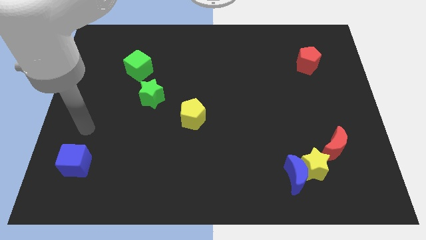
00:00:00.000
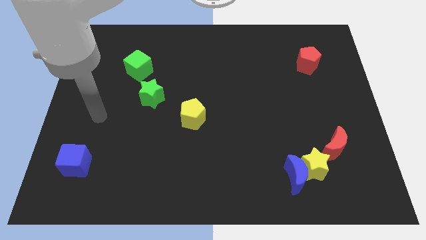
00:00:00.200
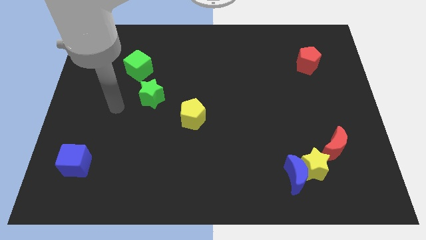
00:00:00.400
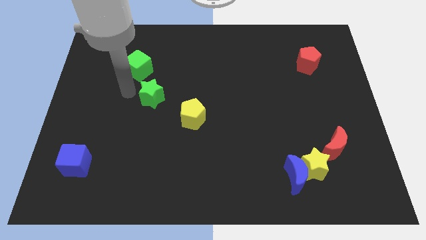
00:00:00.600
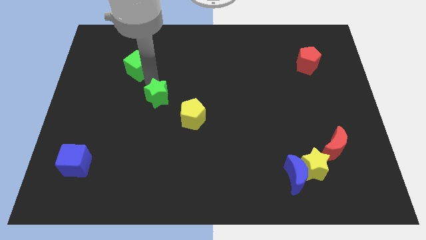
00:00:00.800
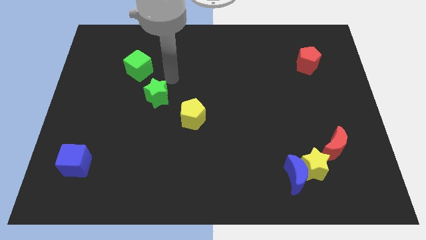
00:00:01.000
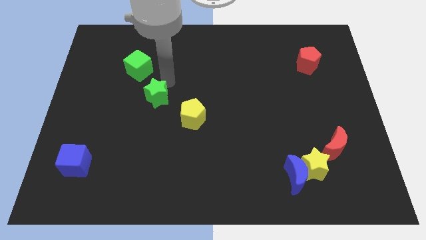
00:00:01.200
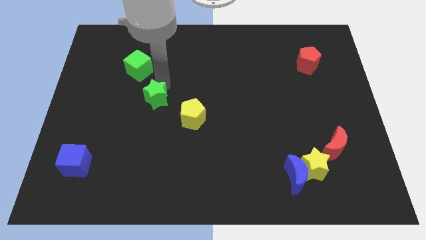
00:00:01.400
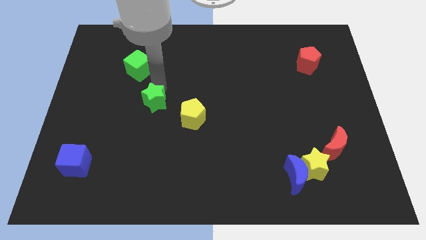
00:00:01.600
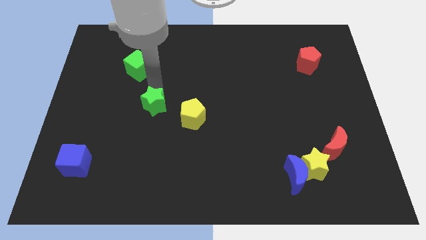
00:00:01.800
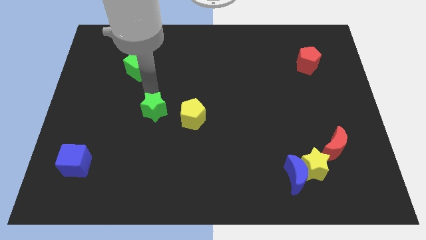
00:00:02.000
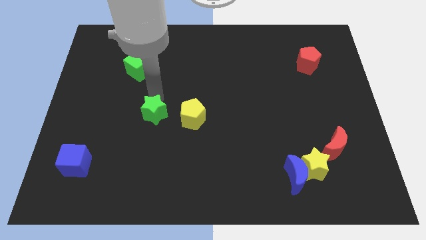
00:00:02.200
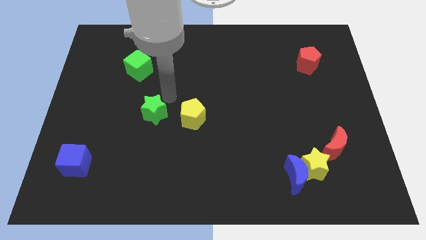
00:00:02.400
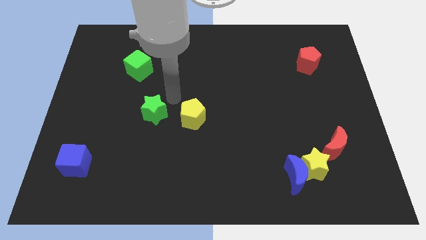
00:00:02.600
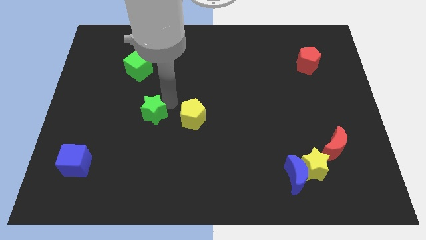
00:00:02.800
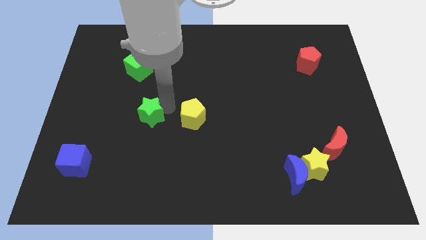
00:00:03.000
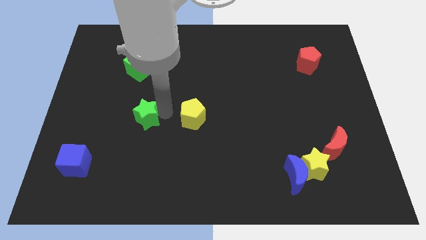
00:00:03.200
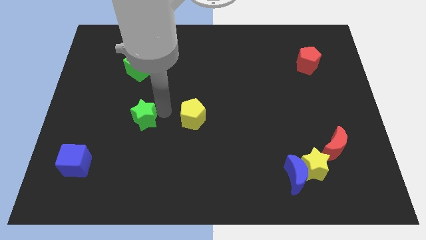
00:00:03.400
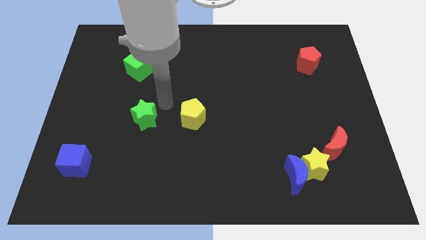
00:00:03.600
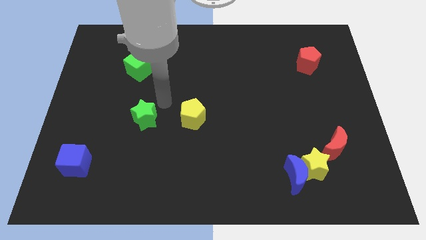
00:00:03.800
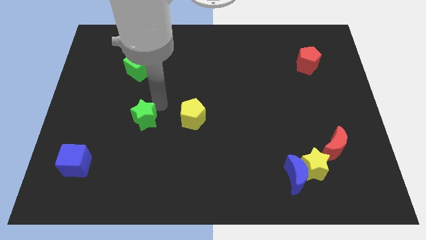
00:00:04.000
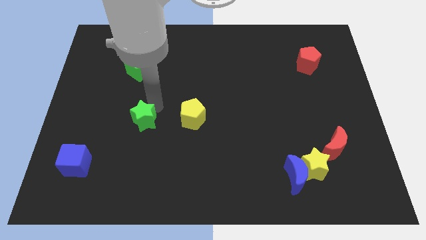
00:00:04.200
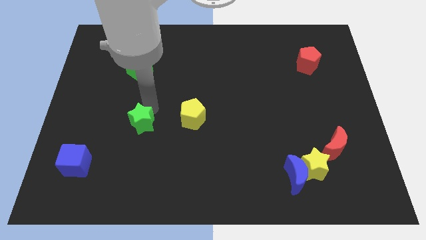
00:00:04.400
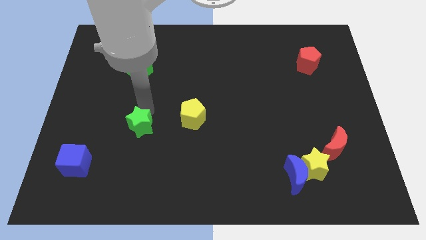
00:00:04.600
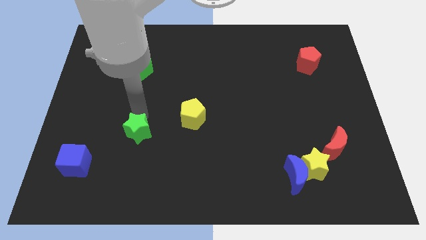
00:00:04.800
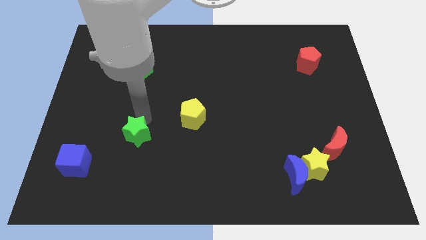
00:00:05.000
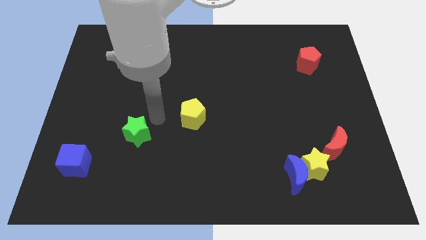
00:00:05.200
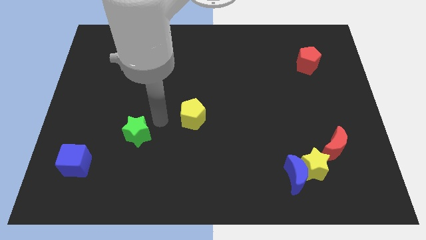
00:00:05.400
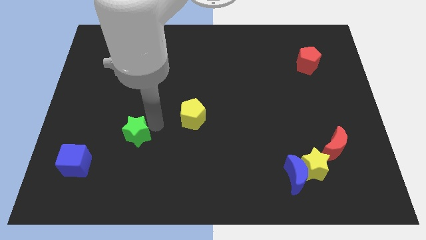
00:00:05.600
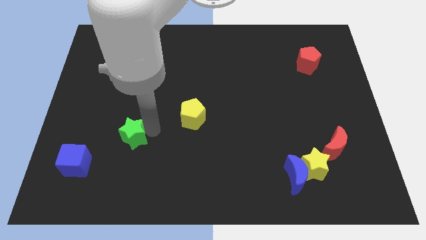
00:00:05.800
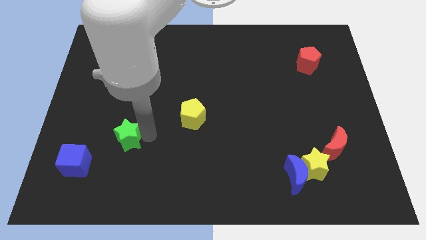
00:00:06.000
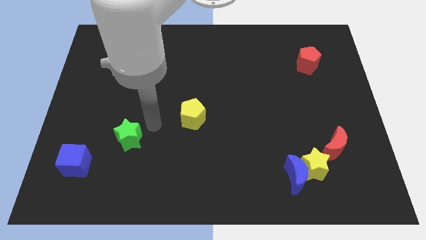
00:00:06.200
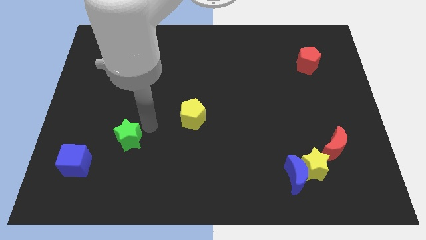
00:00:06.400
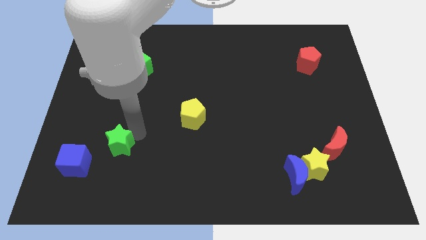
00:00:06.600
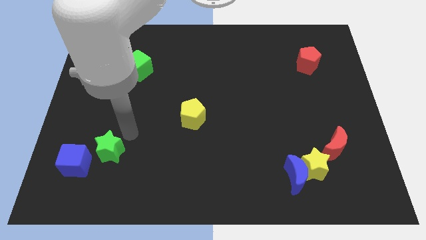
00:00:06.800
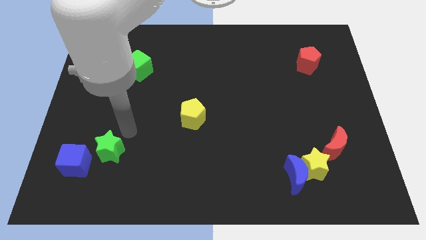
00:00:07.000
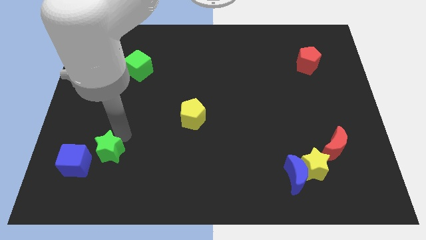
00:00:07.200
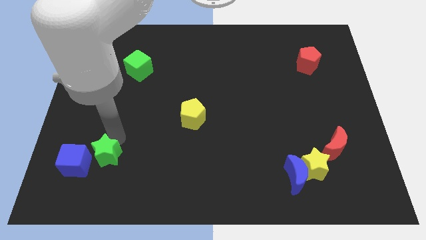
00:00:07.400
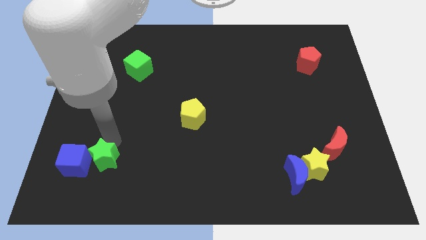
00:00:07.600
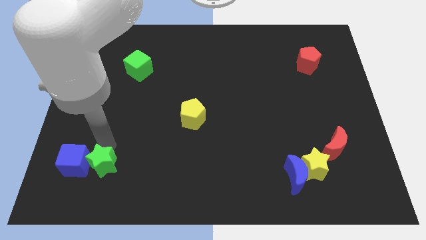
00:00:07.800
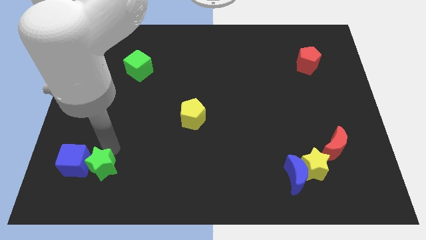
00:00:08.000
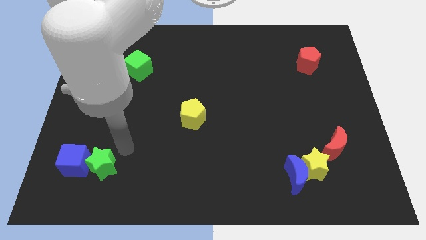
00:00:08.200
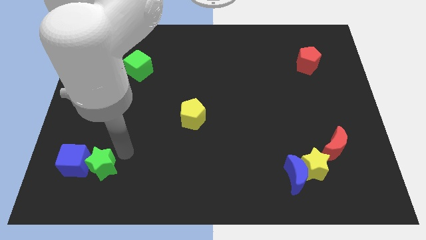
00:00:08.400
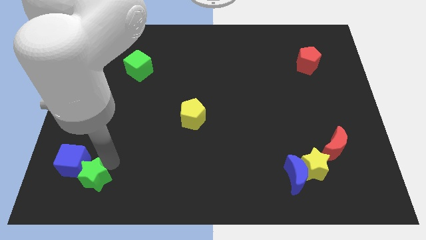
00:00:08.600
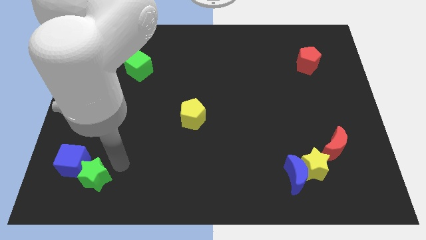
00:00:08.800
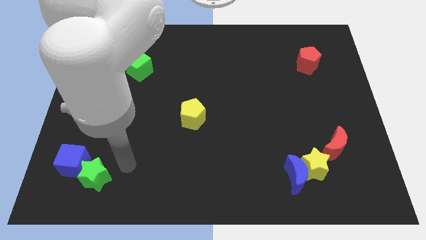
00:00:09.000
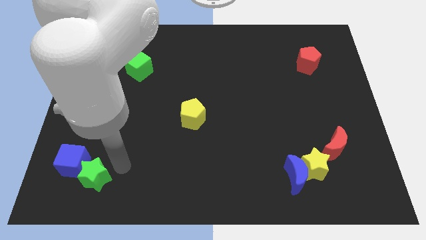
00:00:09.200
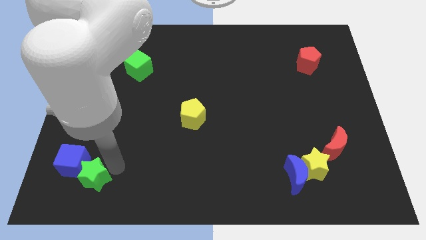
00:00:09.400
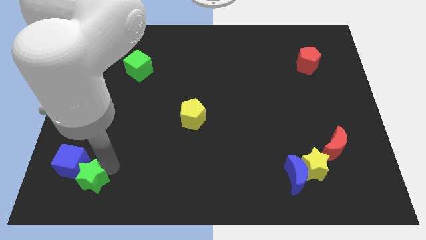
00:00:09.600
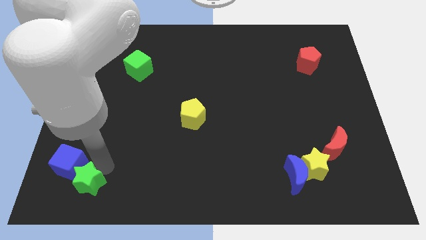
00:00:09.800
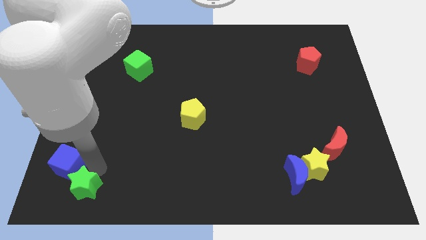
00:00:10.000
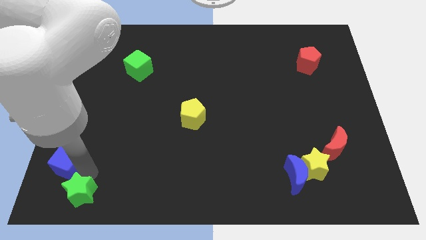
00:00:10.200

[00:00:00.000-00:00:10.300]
push the green star to the lower left corner

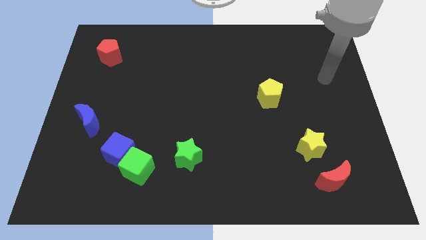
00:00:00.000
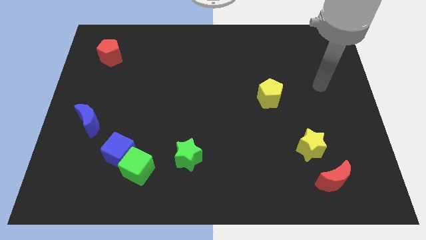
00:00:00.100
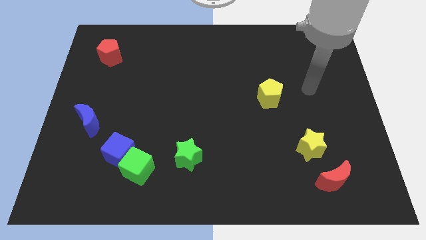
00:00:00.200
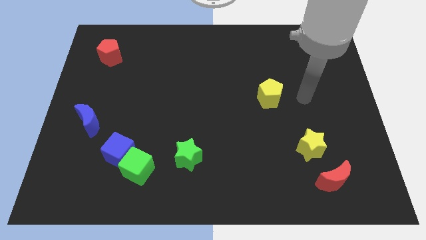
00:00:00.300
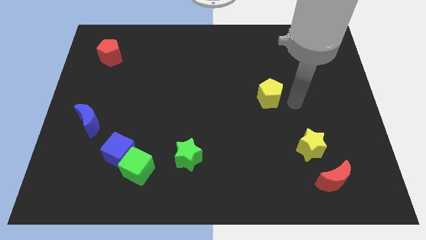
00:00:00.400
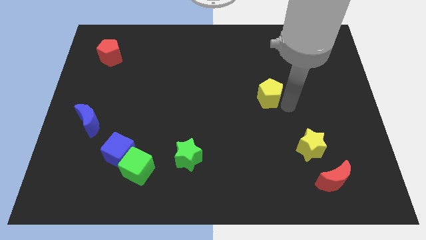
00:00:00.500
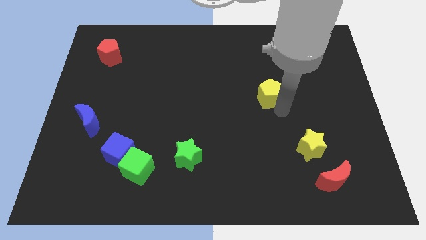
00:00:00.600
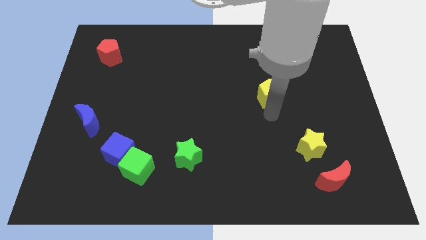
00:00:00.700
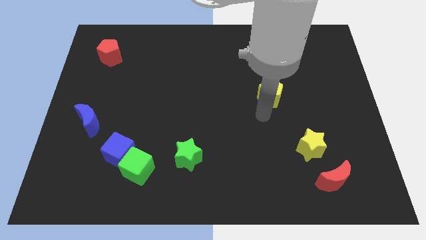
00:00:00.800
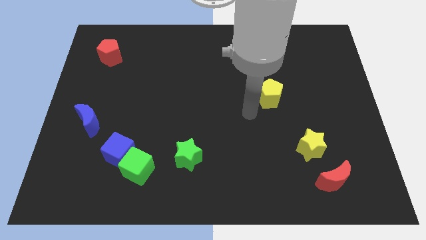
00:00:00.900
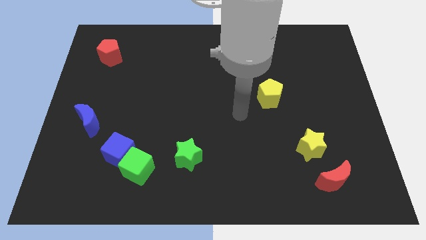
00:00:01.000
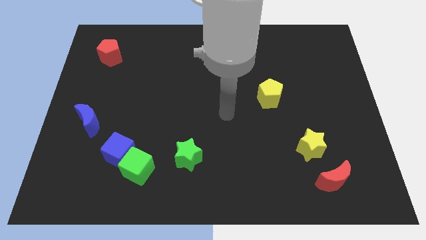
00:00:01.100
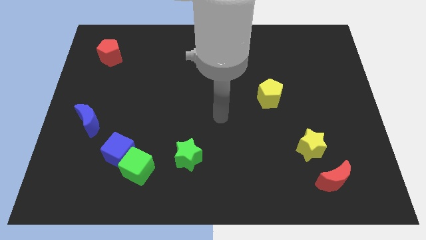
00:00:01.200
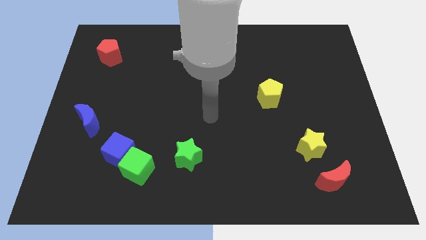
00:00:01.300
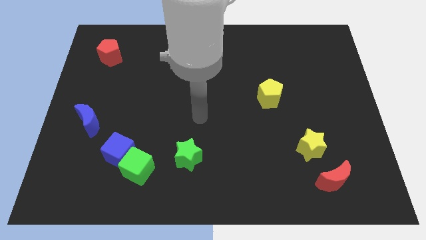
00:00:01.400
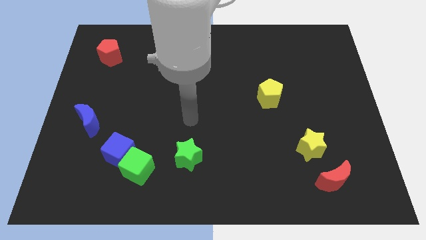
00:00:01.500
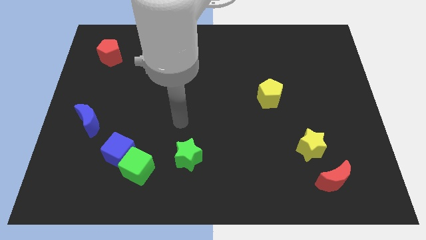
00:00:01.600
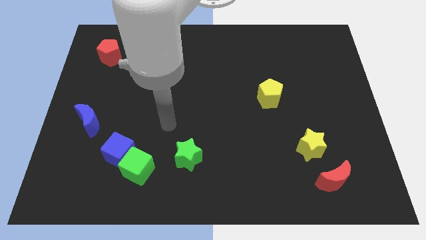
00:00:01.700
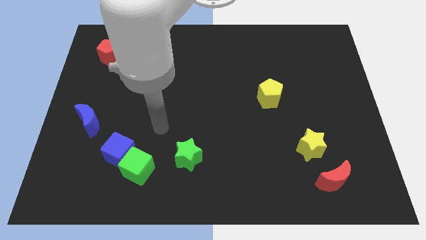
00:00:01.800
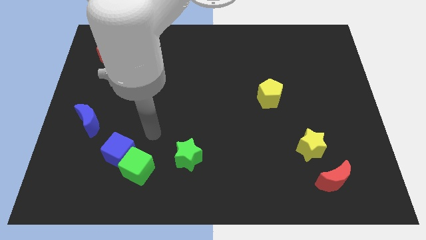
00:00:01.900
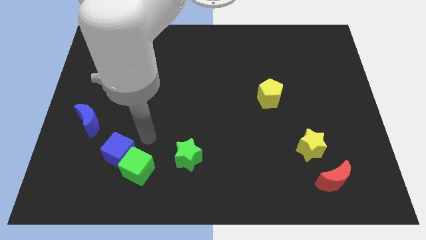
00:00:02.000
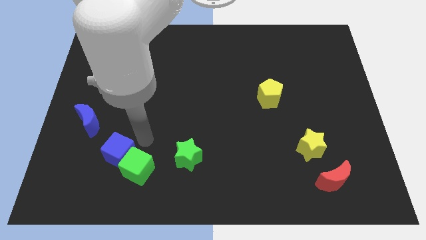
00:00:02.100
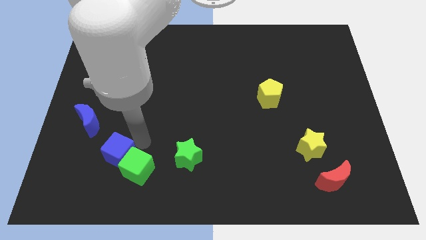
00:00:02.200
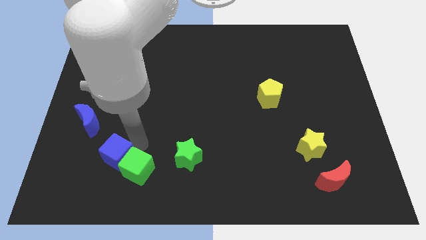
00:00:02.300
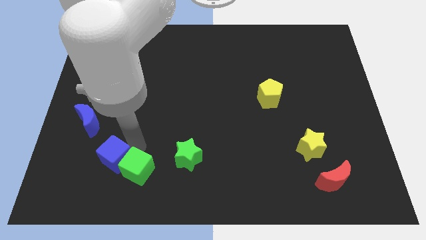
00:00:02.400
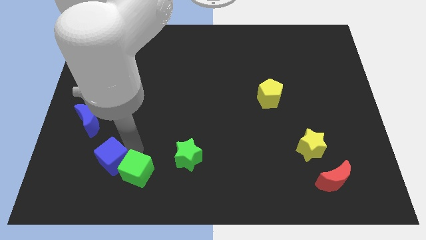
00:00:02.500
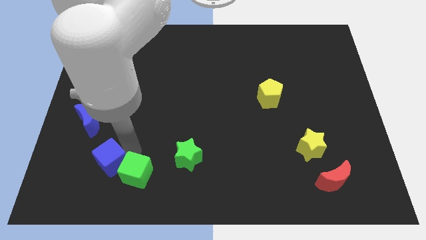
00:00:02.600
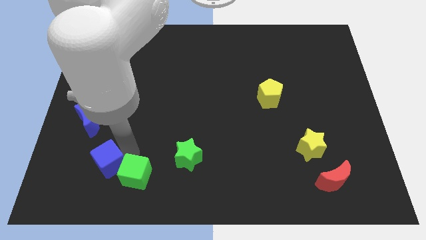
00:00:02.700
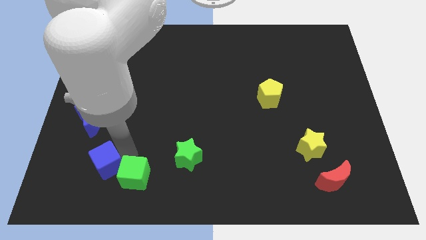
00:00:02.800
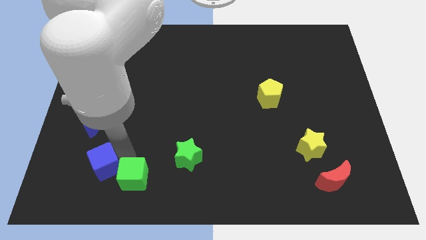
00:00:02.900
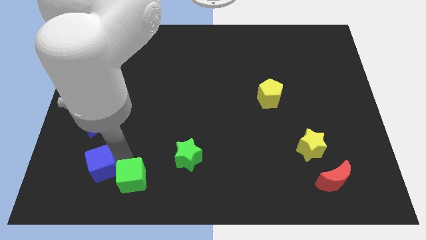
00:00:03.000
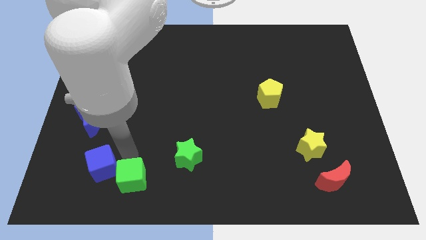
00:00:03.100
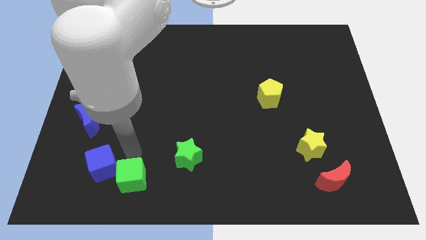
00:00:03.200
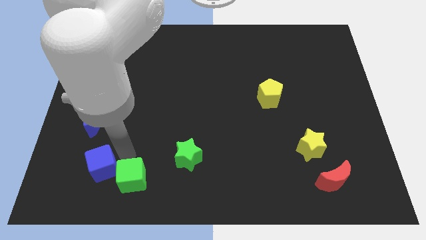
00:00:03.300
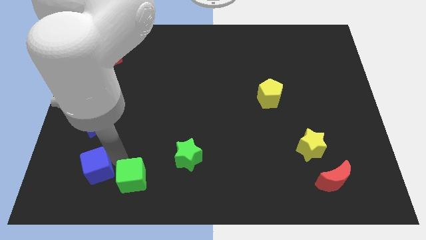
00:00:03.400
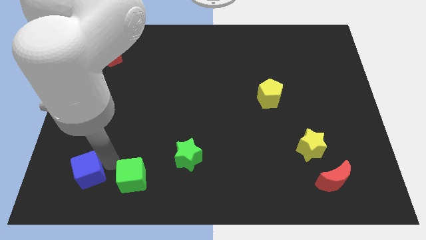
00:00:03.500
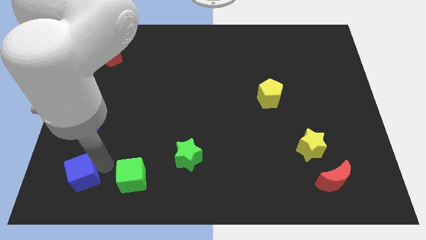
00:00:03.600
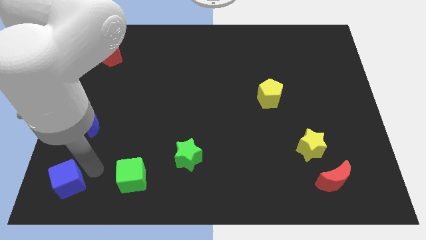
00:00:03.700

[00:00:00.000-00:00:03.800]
put the blue cube to the bottom left of the board
